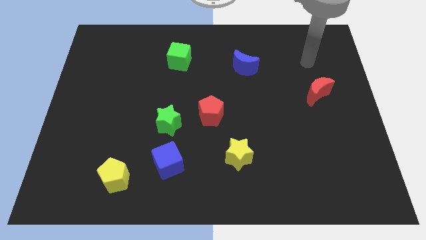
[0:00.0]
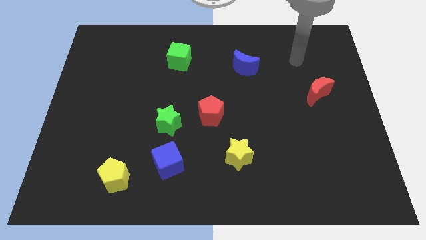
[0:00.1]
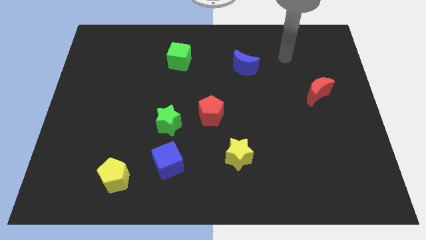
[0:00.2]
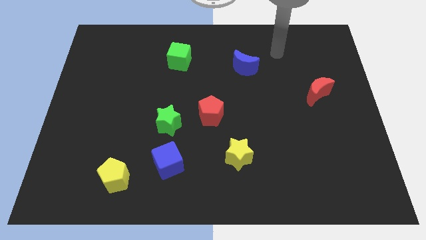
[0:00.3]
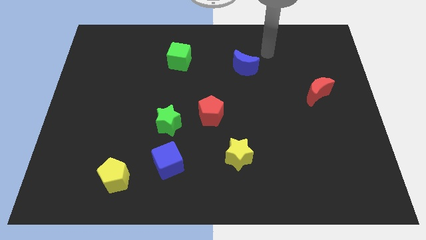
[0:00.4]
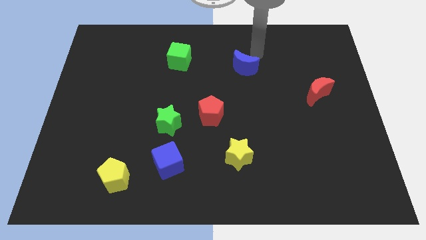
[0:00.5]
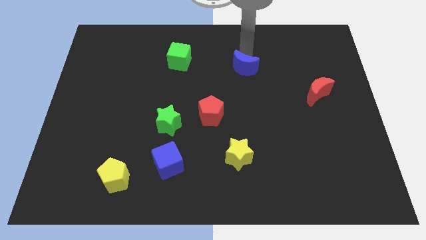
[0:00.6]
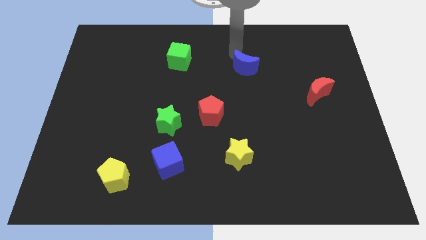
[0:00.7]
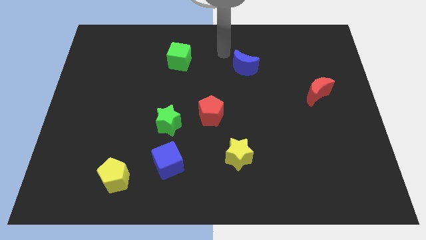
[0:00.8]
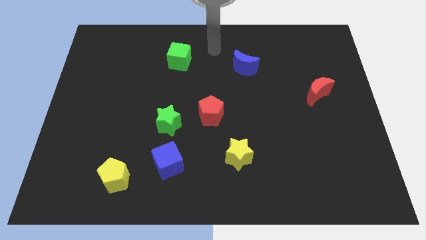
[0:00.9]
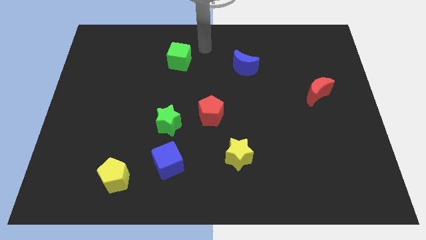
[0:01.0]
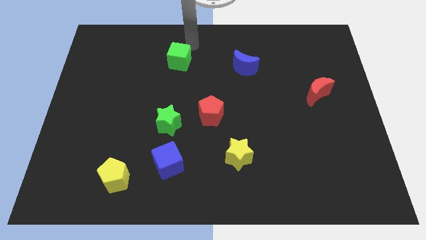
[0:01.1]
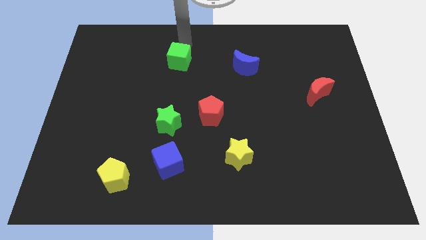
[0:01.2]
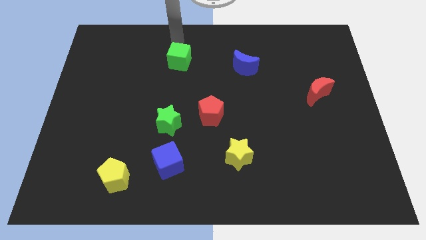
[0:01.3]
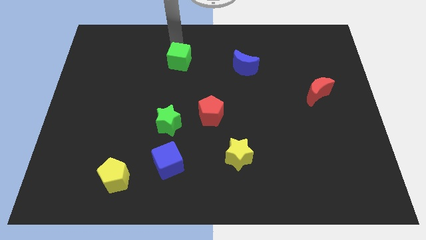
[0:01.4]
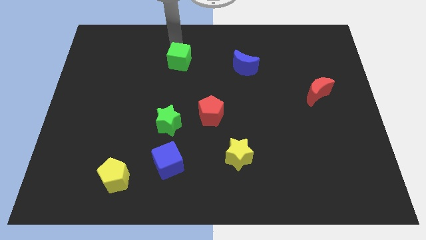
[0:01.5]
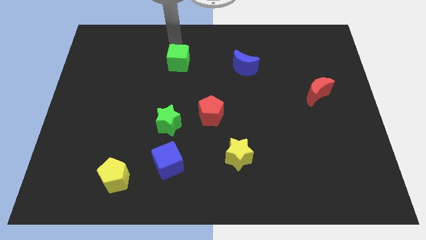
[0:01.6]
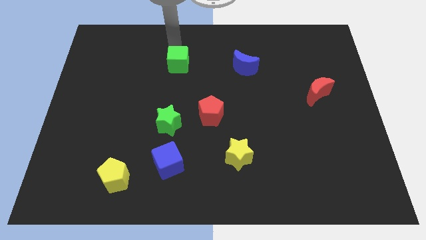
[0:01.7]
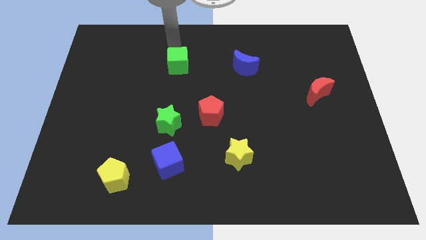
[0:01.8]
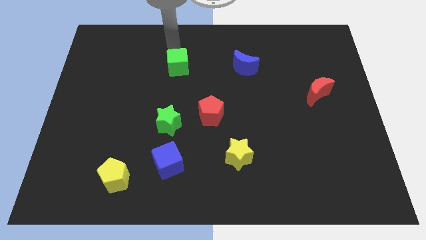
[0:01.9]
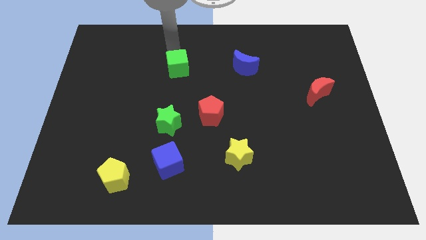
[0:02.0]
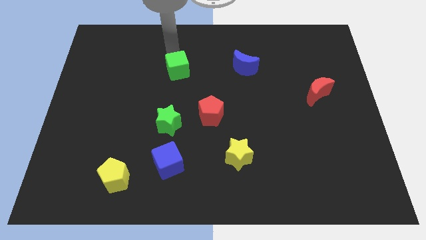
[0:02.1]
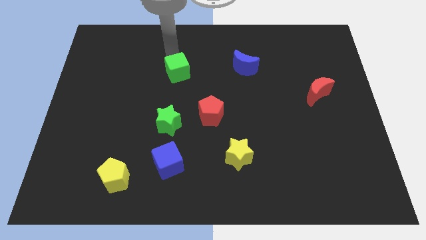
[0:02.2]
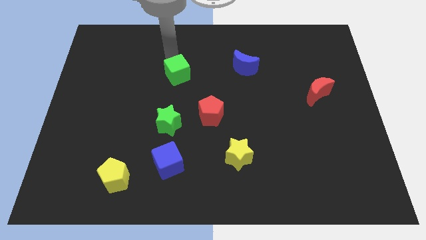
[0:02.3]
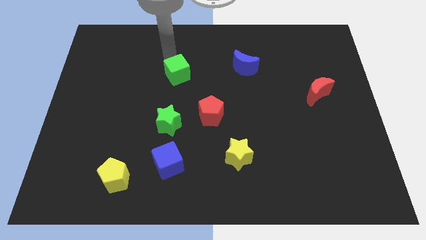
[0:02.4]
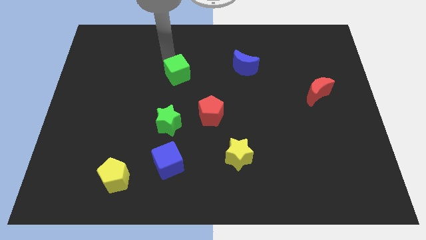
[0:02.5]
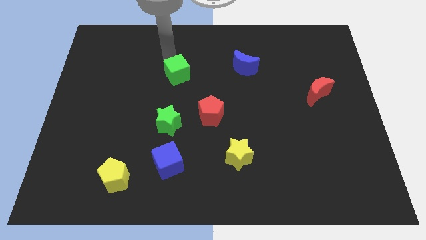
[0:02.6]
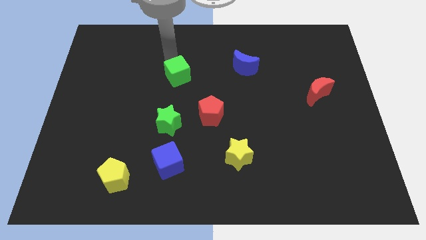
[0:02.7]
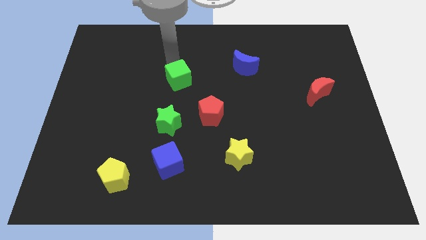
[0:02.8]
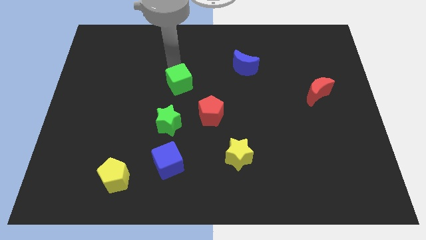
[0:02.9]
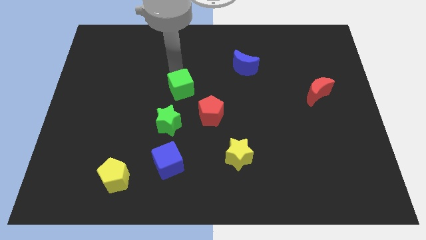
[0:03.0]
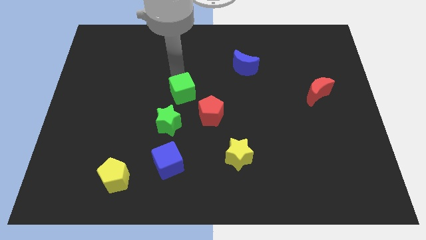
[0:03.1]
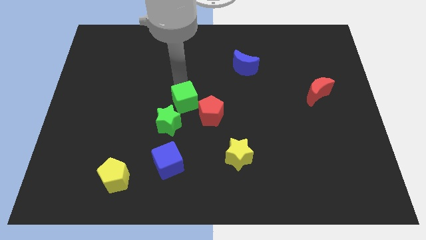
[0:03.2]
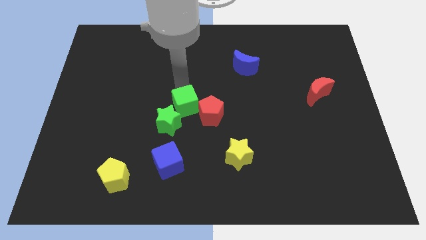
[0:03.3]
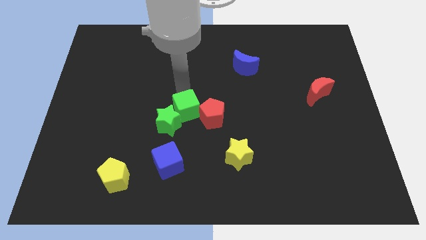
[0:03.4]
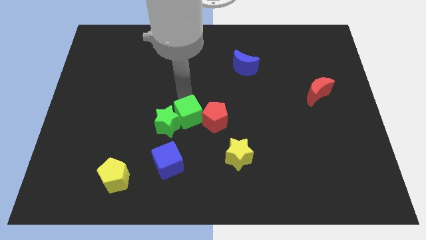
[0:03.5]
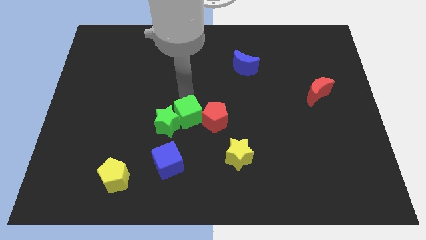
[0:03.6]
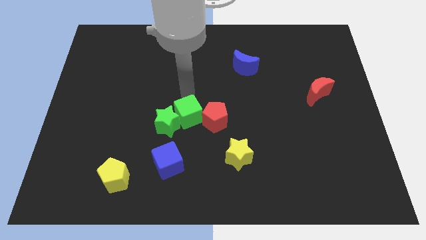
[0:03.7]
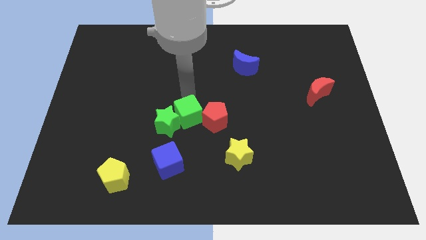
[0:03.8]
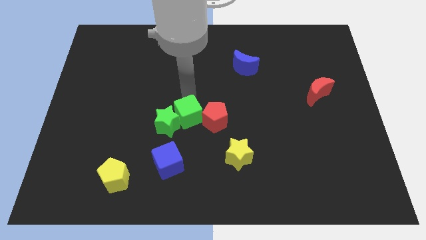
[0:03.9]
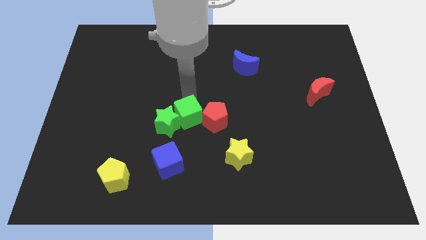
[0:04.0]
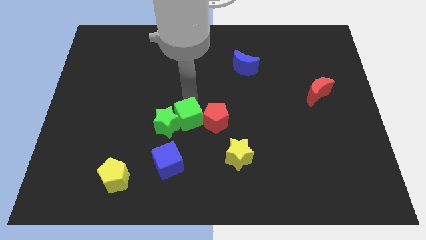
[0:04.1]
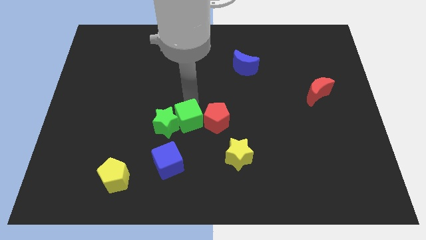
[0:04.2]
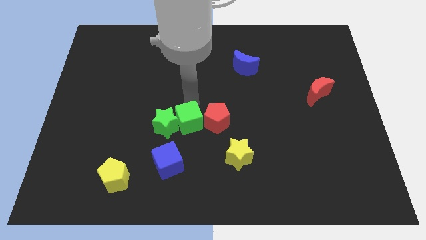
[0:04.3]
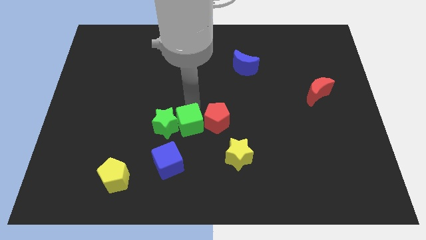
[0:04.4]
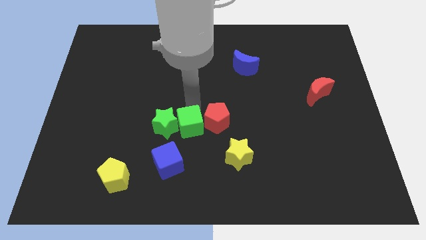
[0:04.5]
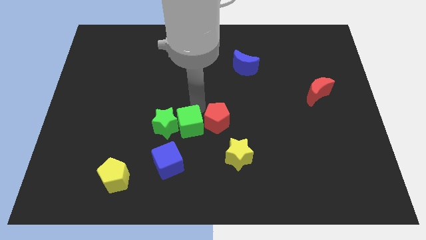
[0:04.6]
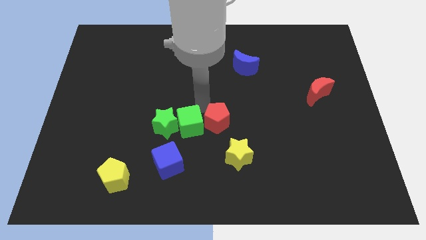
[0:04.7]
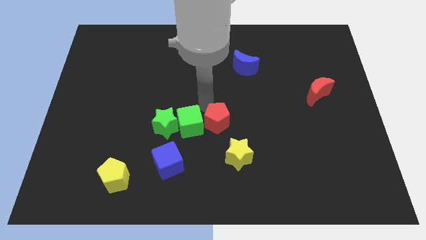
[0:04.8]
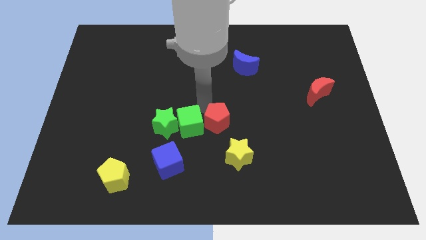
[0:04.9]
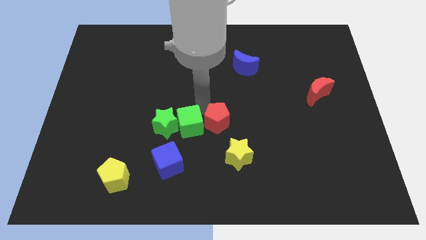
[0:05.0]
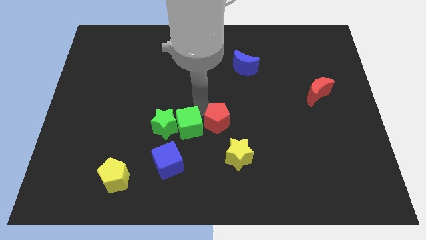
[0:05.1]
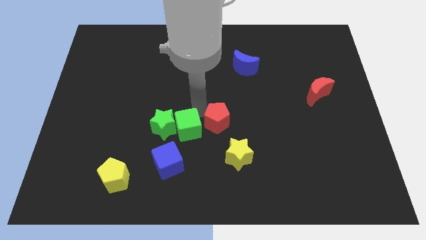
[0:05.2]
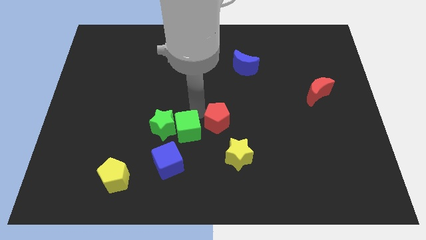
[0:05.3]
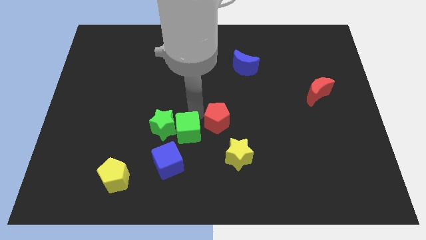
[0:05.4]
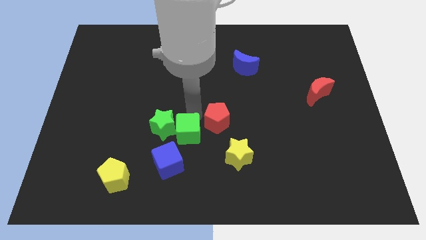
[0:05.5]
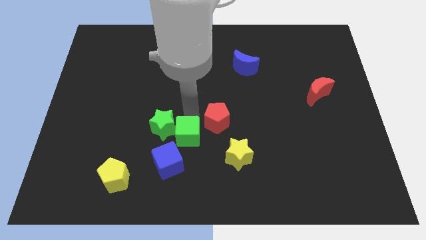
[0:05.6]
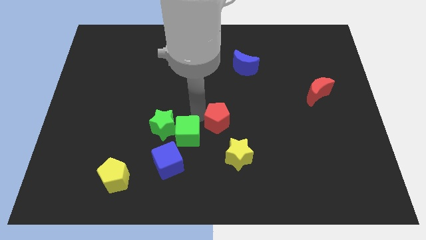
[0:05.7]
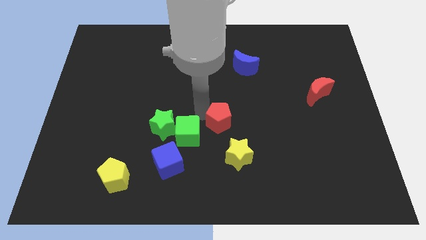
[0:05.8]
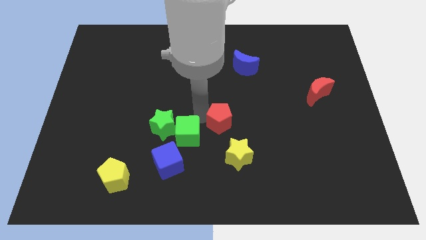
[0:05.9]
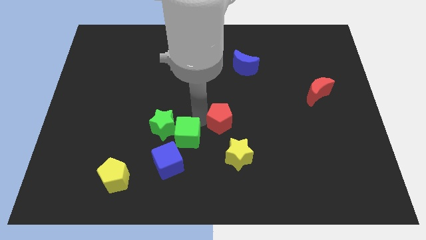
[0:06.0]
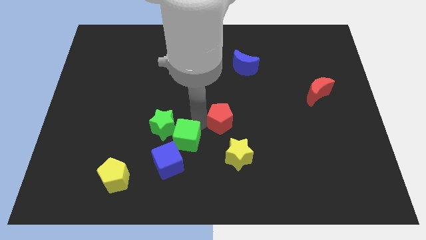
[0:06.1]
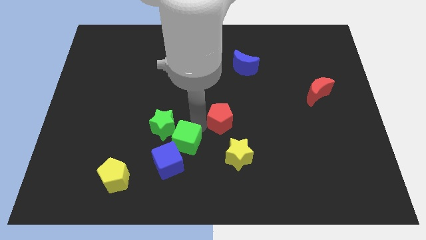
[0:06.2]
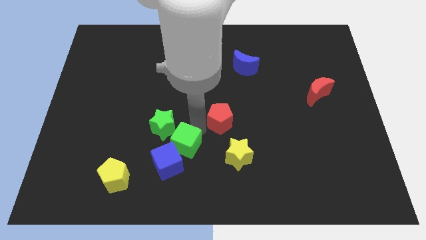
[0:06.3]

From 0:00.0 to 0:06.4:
put the green cube next to the blue cube

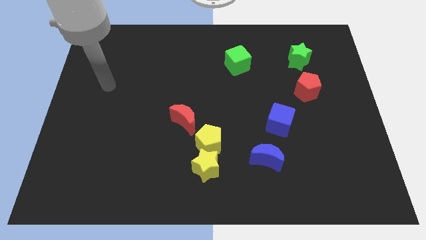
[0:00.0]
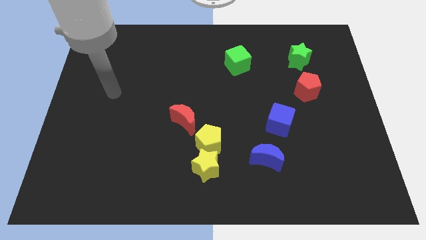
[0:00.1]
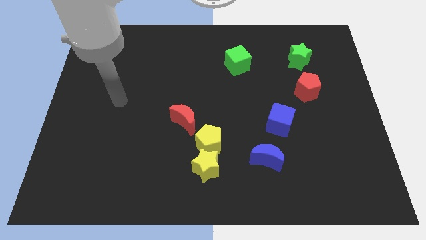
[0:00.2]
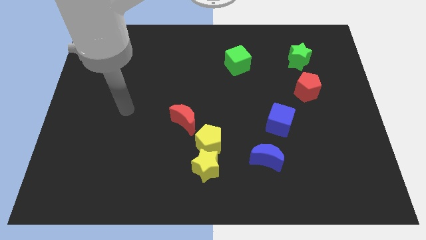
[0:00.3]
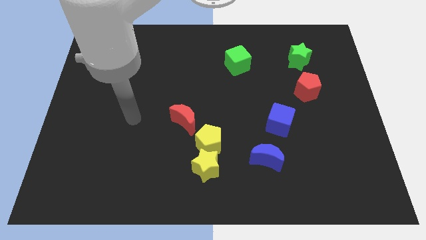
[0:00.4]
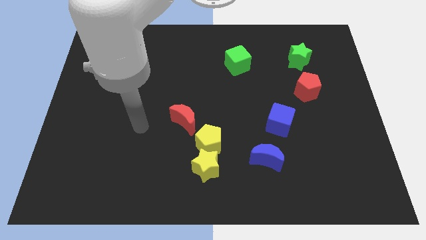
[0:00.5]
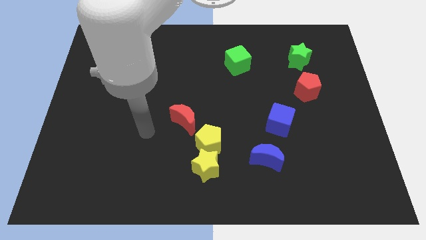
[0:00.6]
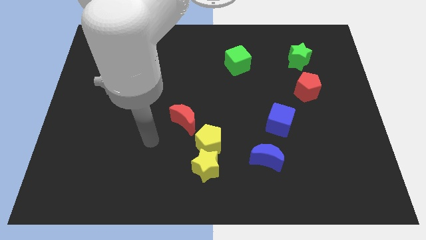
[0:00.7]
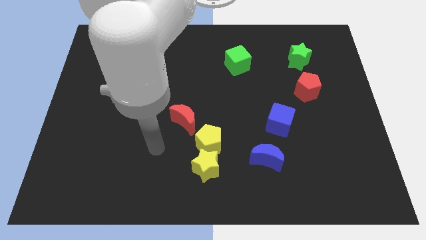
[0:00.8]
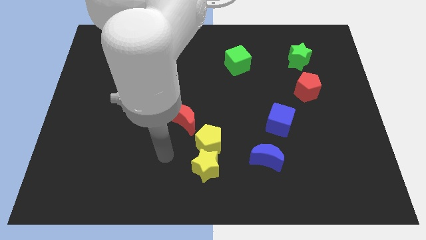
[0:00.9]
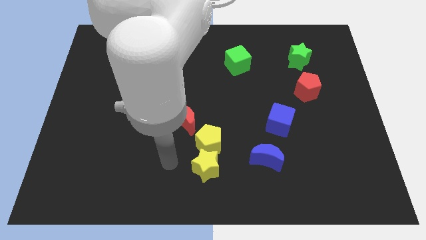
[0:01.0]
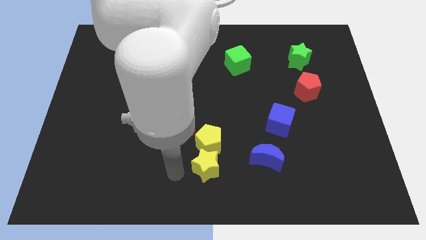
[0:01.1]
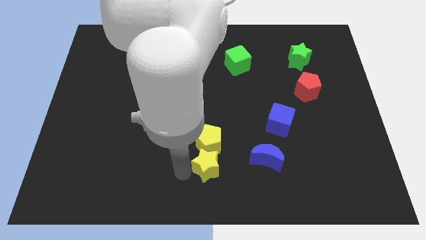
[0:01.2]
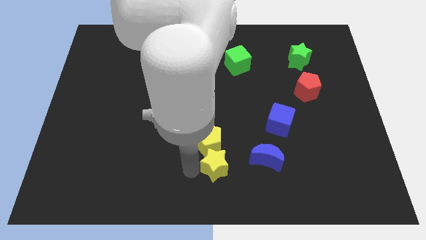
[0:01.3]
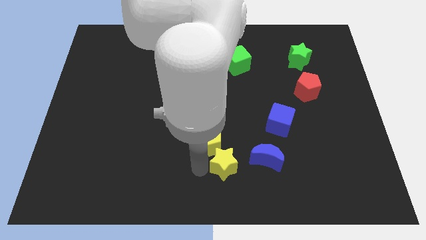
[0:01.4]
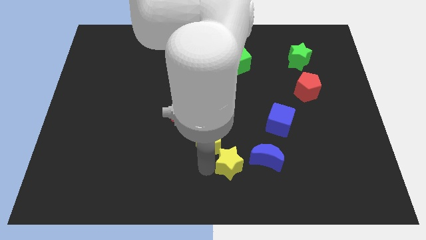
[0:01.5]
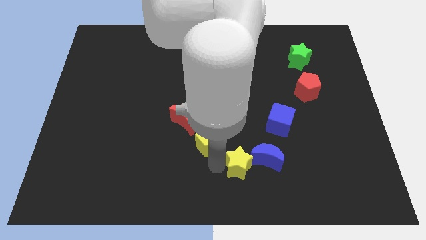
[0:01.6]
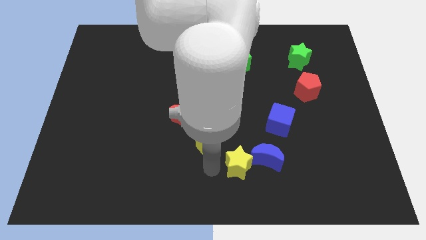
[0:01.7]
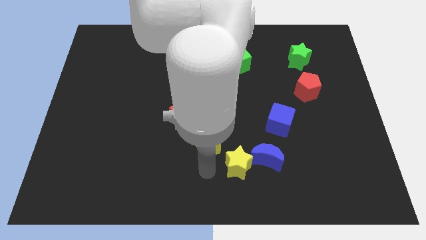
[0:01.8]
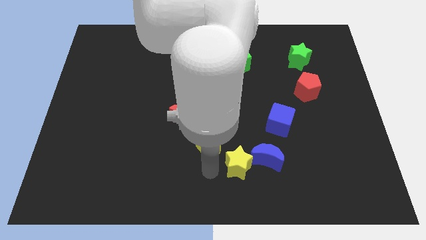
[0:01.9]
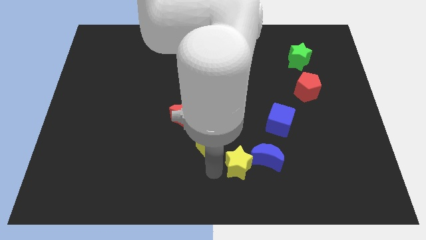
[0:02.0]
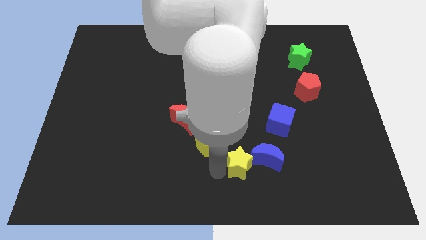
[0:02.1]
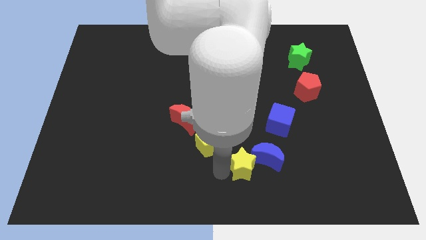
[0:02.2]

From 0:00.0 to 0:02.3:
push the yellow star close to the blue moon
